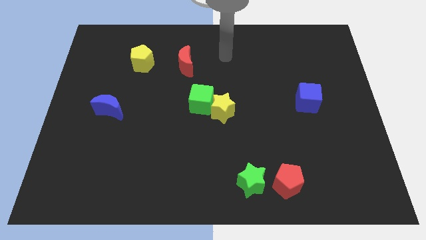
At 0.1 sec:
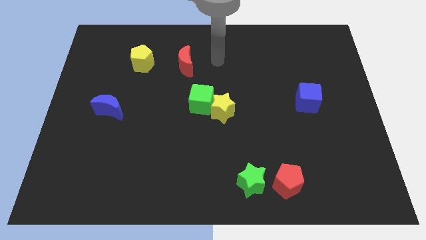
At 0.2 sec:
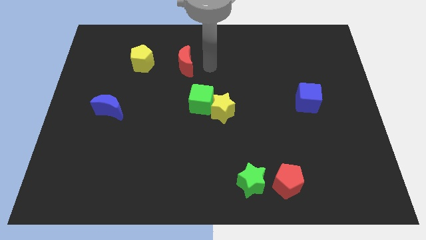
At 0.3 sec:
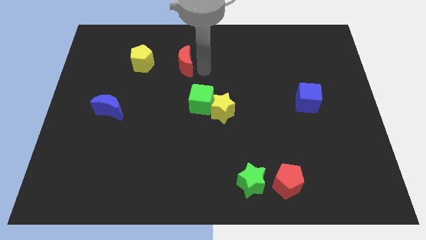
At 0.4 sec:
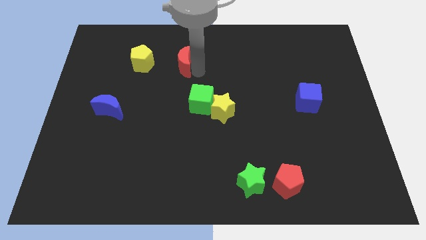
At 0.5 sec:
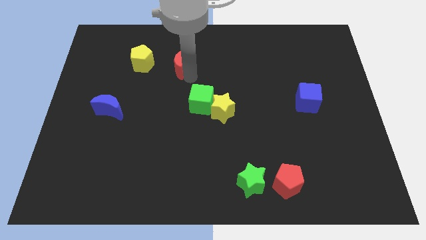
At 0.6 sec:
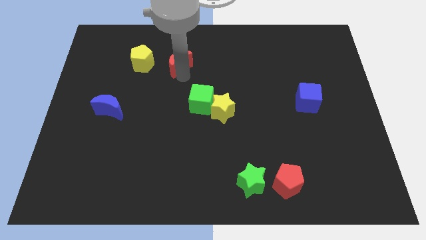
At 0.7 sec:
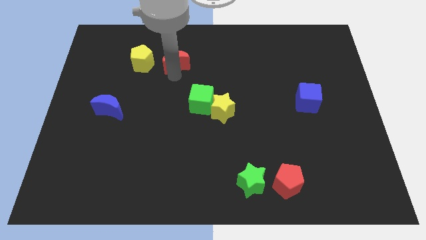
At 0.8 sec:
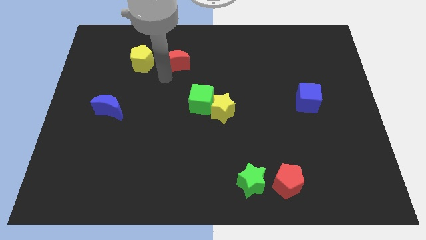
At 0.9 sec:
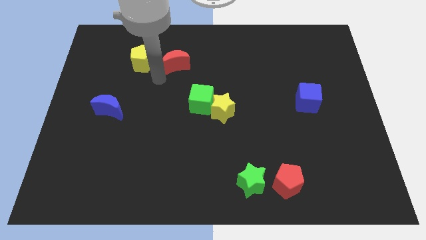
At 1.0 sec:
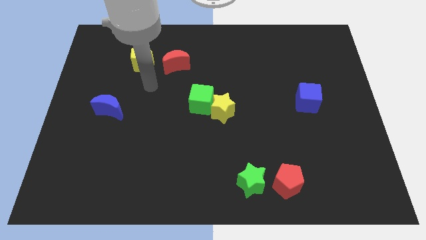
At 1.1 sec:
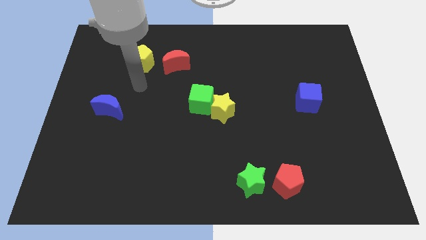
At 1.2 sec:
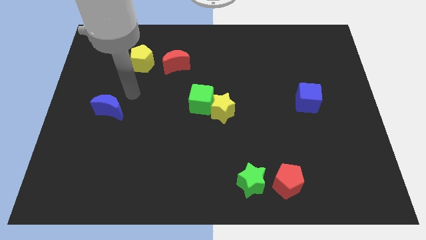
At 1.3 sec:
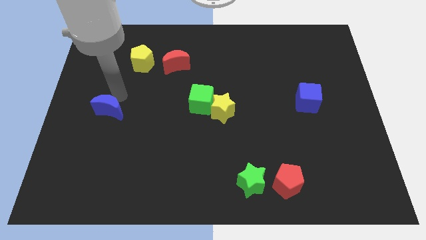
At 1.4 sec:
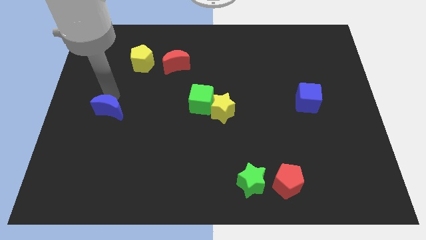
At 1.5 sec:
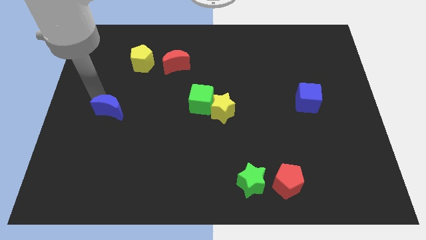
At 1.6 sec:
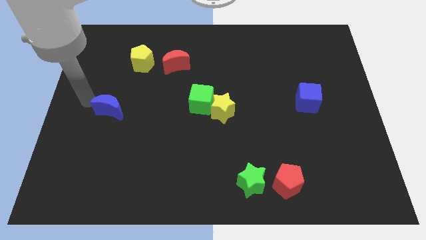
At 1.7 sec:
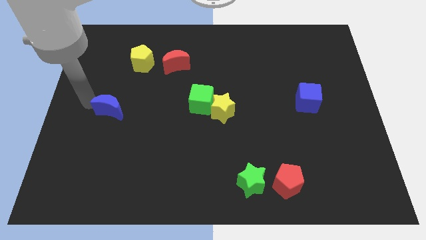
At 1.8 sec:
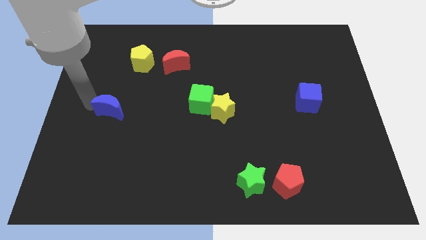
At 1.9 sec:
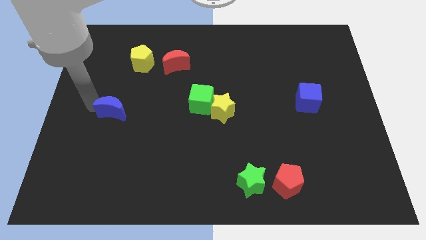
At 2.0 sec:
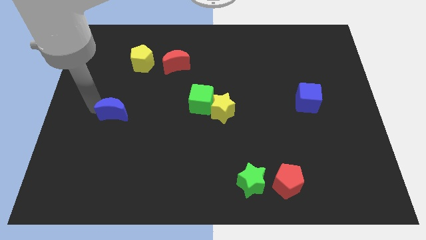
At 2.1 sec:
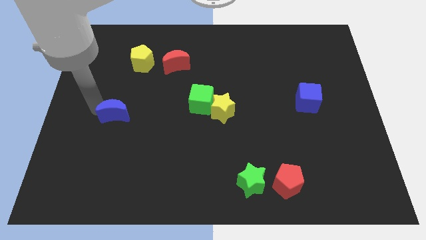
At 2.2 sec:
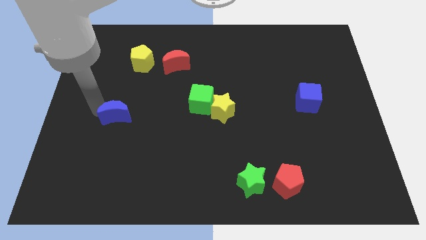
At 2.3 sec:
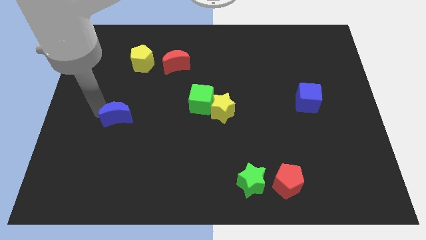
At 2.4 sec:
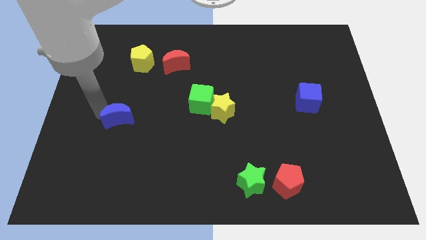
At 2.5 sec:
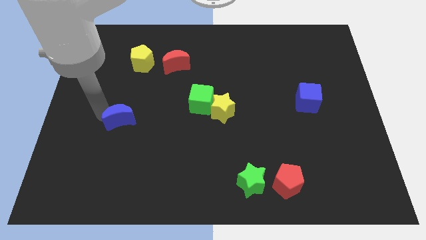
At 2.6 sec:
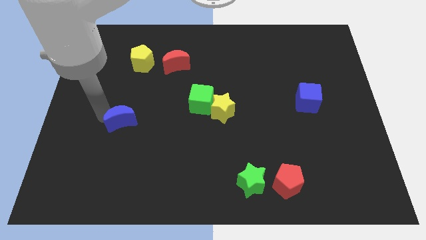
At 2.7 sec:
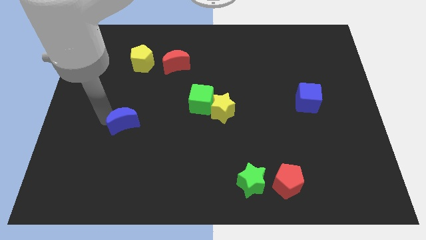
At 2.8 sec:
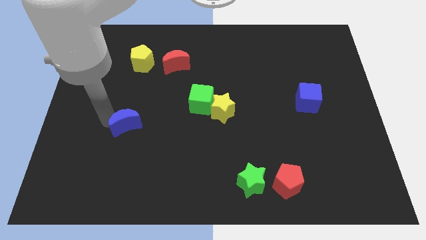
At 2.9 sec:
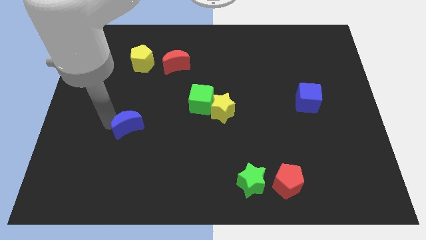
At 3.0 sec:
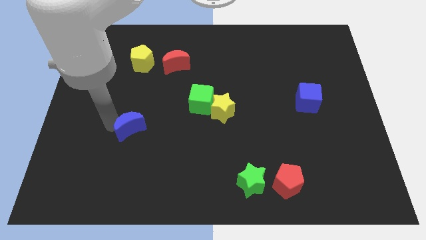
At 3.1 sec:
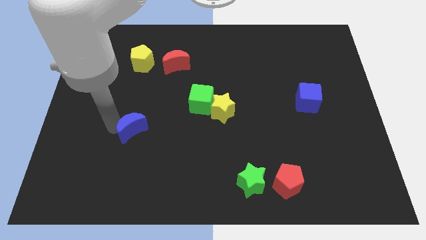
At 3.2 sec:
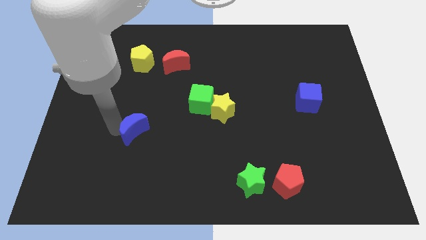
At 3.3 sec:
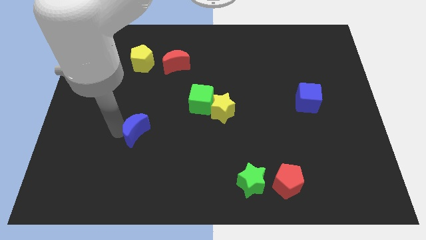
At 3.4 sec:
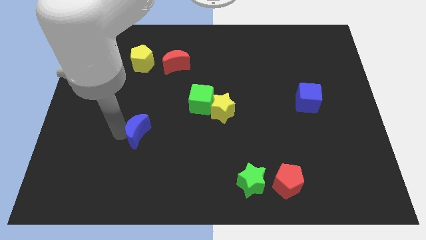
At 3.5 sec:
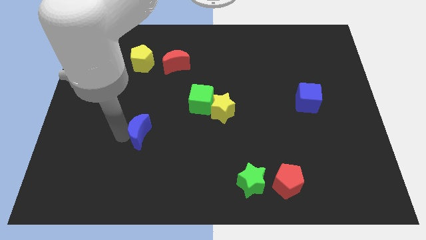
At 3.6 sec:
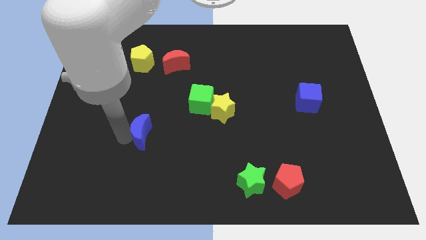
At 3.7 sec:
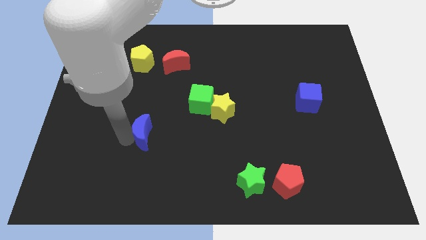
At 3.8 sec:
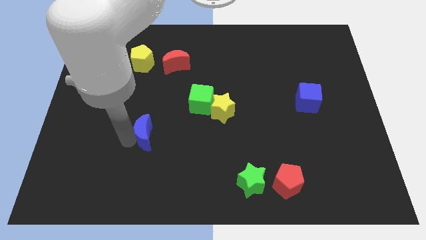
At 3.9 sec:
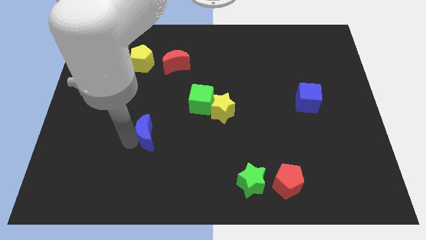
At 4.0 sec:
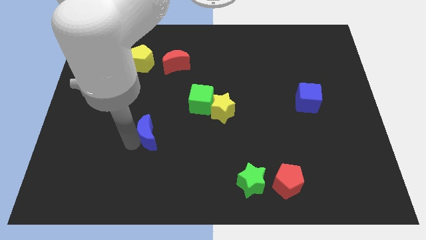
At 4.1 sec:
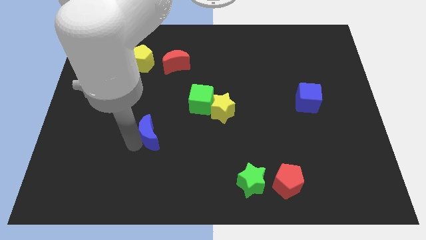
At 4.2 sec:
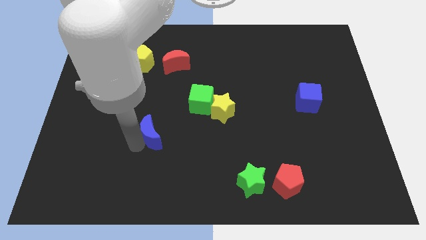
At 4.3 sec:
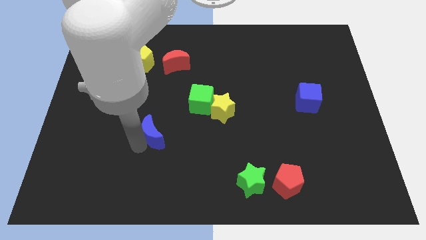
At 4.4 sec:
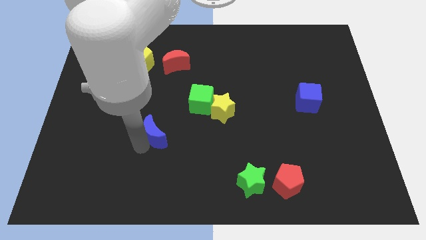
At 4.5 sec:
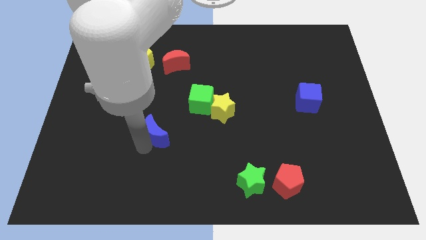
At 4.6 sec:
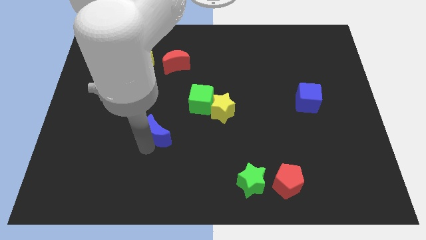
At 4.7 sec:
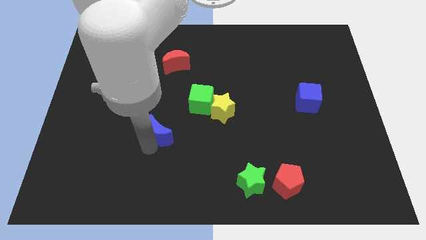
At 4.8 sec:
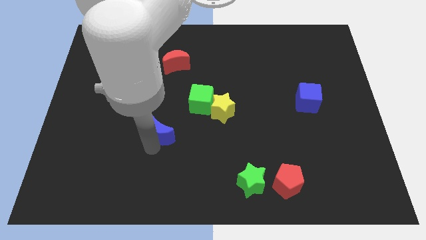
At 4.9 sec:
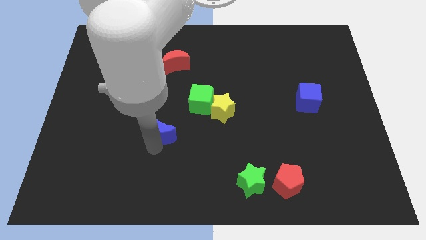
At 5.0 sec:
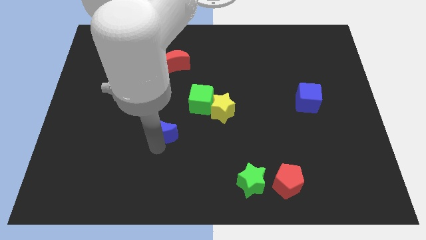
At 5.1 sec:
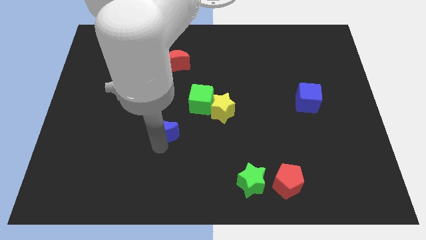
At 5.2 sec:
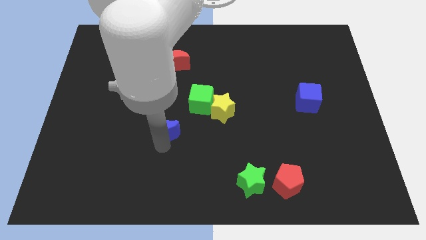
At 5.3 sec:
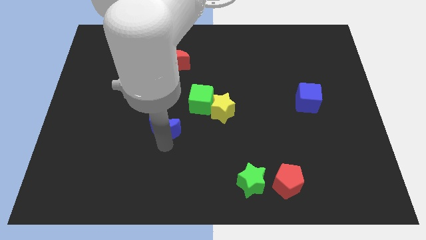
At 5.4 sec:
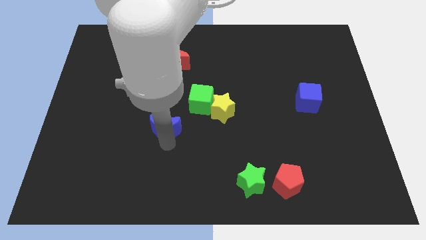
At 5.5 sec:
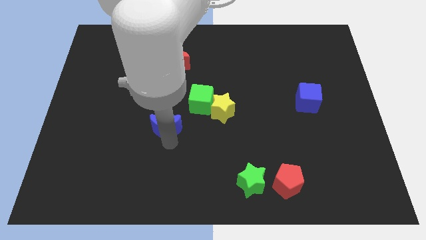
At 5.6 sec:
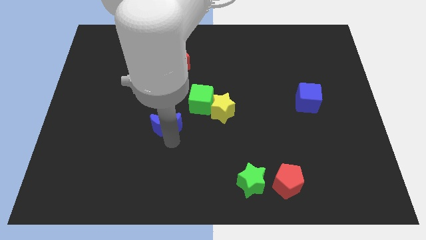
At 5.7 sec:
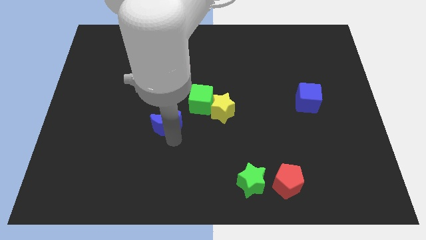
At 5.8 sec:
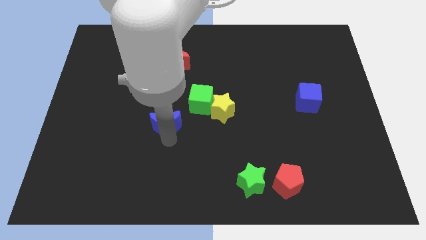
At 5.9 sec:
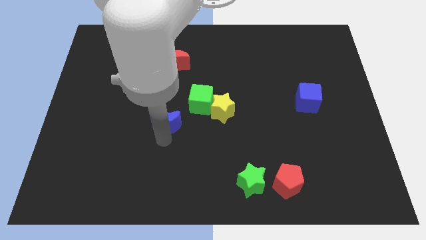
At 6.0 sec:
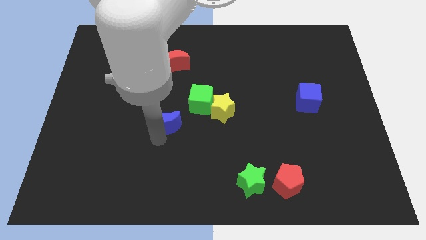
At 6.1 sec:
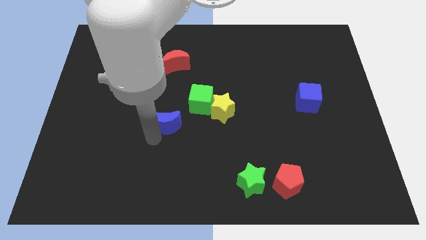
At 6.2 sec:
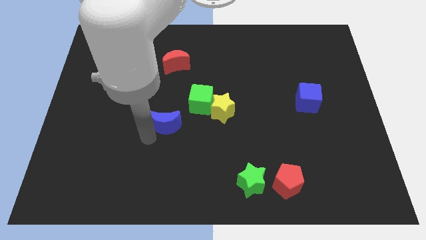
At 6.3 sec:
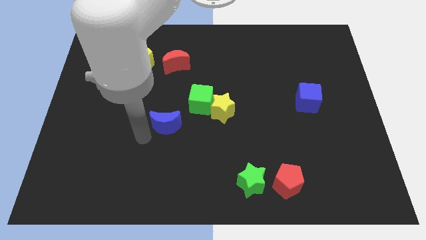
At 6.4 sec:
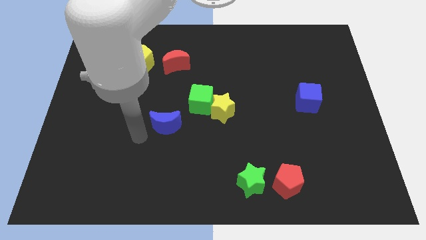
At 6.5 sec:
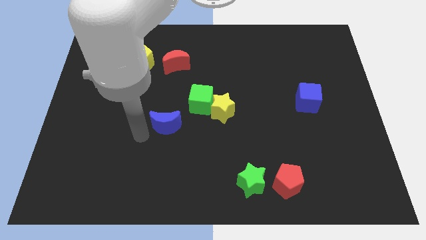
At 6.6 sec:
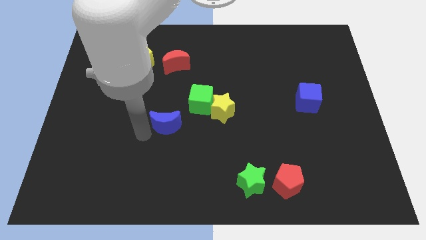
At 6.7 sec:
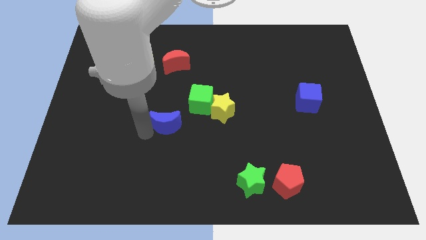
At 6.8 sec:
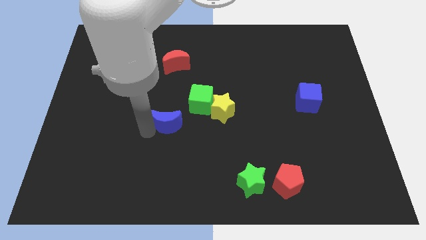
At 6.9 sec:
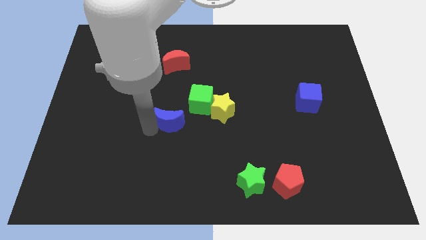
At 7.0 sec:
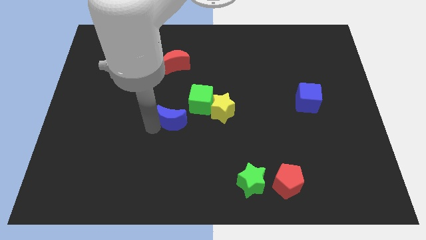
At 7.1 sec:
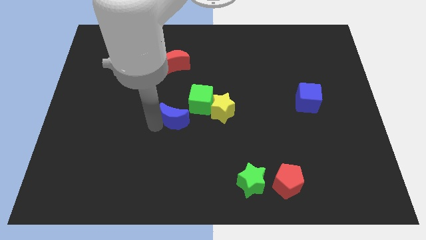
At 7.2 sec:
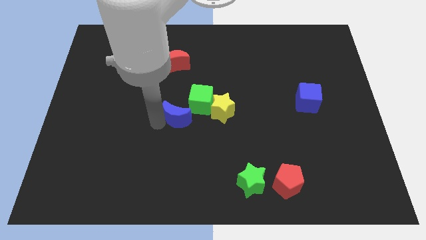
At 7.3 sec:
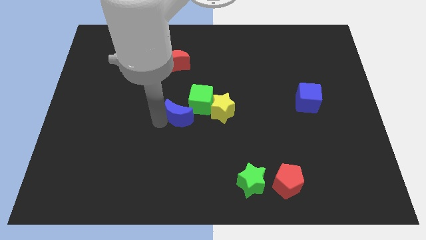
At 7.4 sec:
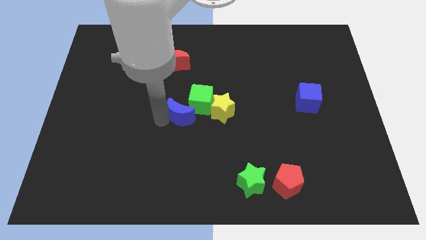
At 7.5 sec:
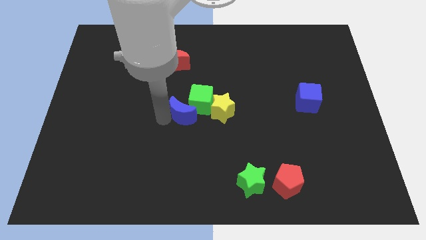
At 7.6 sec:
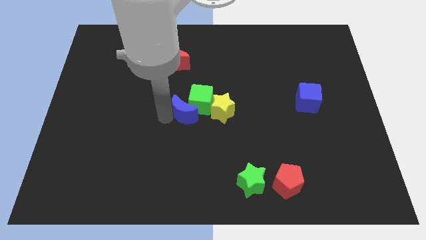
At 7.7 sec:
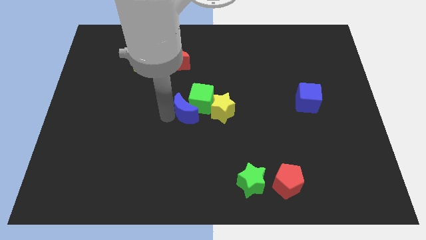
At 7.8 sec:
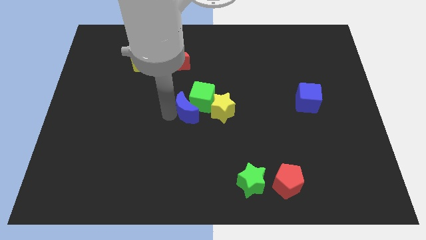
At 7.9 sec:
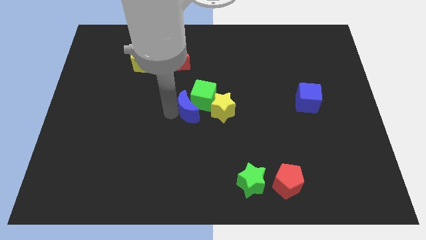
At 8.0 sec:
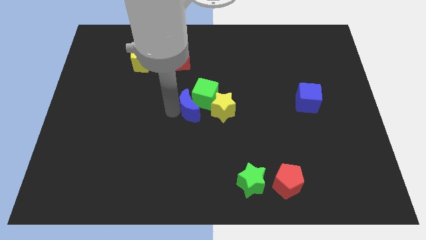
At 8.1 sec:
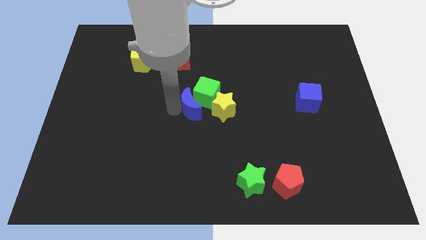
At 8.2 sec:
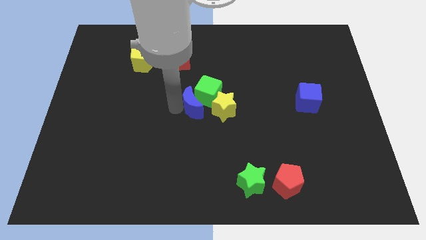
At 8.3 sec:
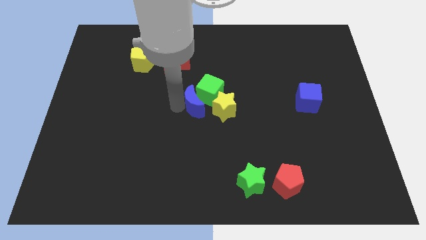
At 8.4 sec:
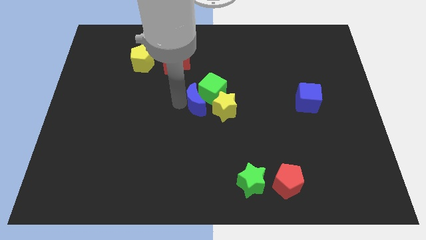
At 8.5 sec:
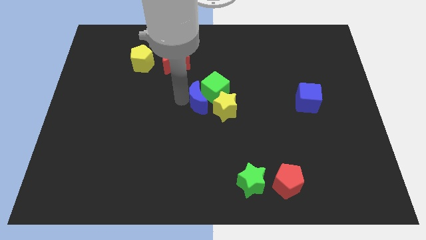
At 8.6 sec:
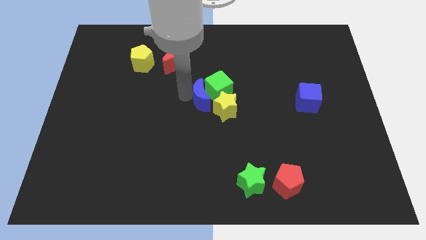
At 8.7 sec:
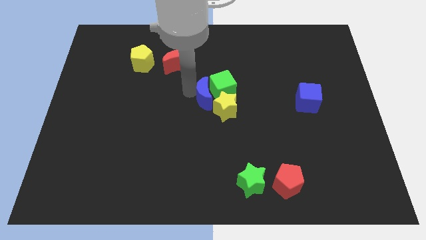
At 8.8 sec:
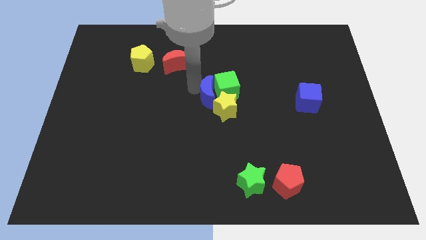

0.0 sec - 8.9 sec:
slide the blue moon next to the yellow star
